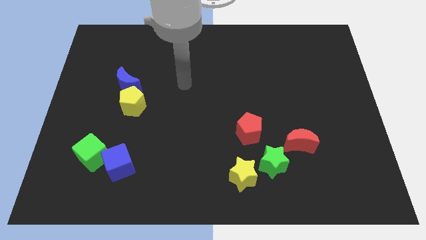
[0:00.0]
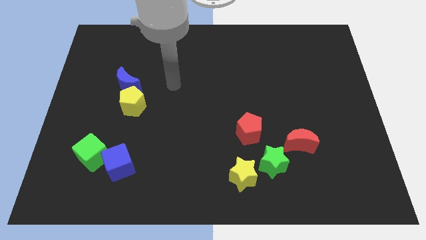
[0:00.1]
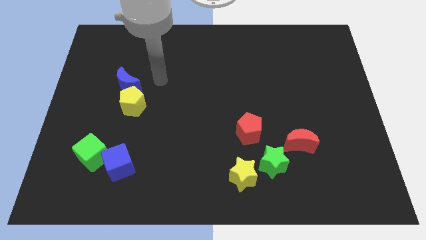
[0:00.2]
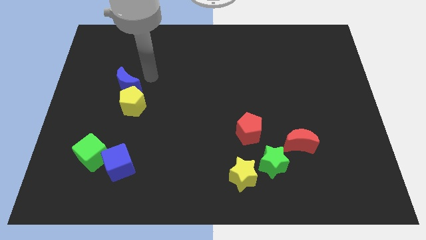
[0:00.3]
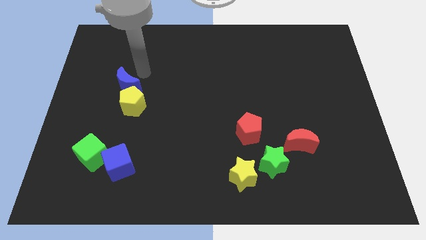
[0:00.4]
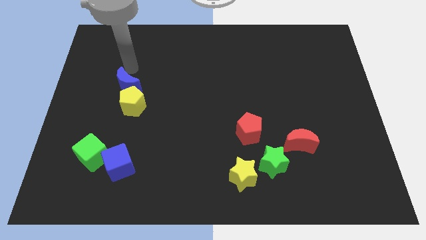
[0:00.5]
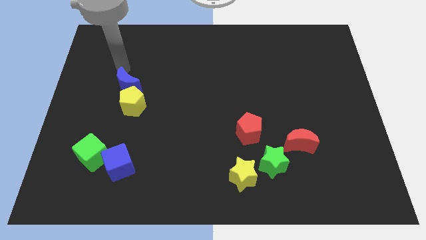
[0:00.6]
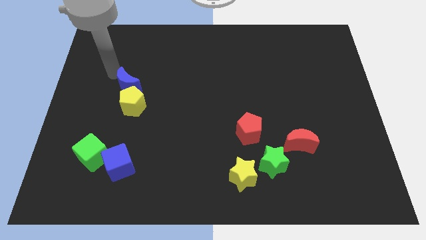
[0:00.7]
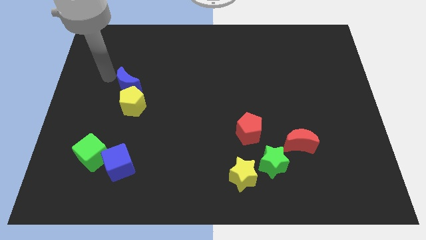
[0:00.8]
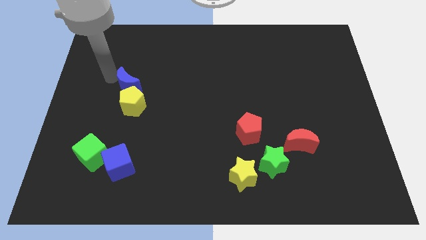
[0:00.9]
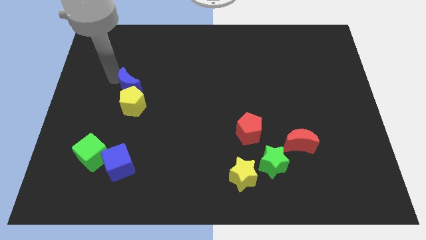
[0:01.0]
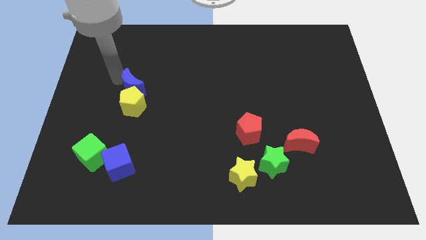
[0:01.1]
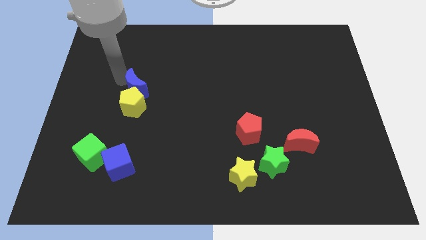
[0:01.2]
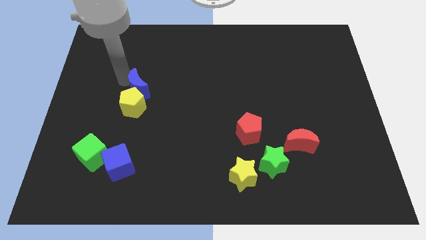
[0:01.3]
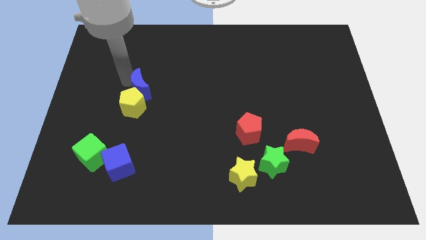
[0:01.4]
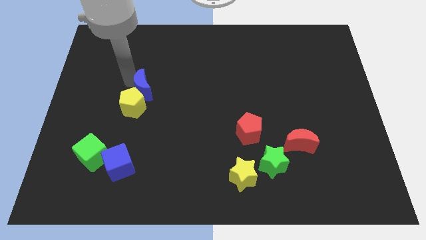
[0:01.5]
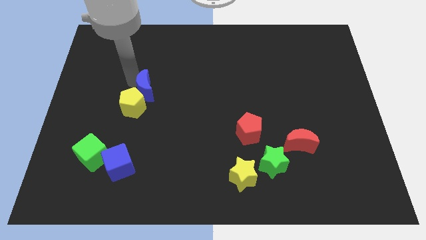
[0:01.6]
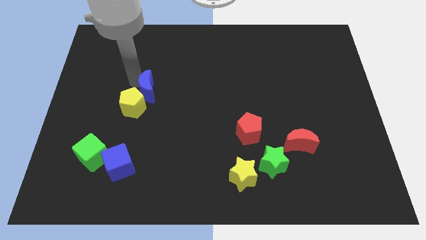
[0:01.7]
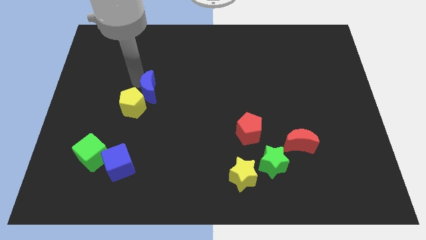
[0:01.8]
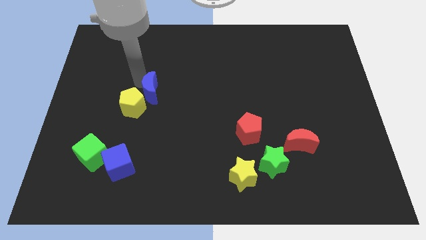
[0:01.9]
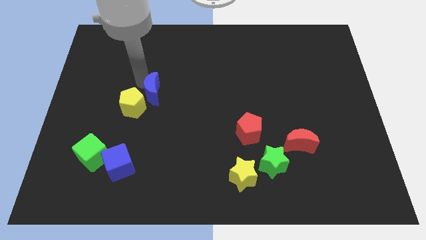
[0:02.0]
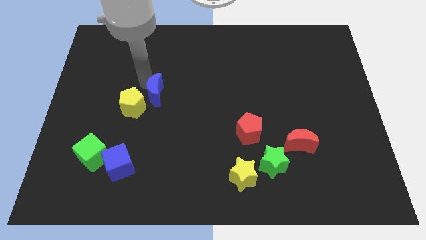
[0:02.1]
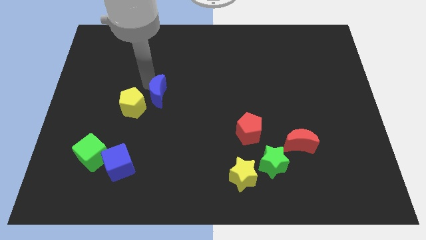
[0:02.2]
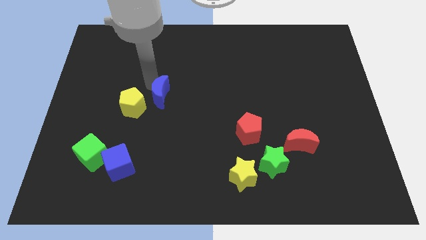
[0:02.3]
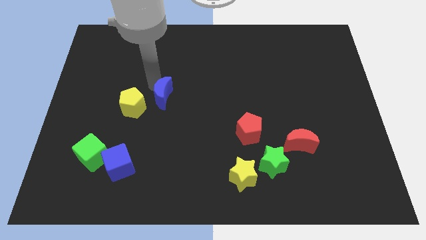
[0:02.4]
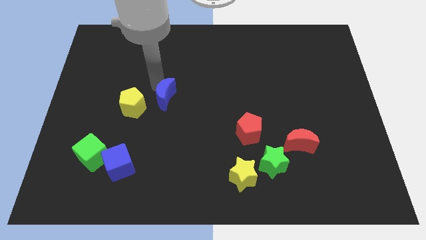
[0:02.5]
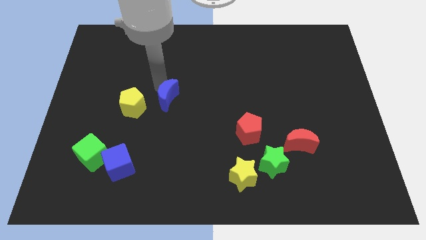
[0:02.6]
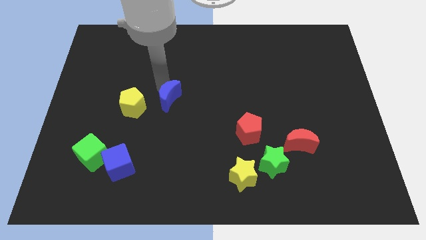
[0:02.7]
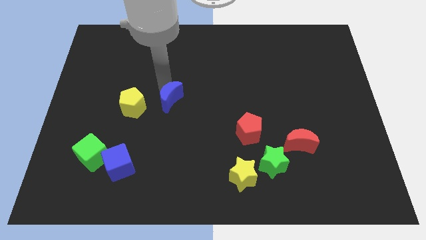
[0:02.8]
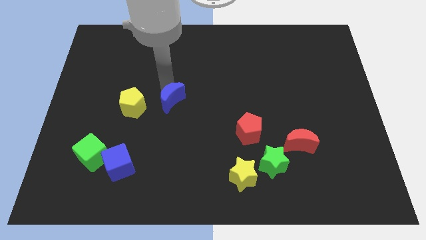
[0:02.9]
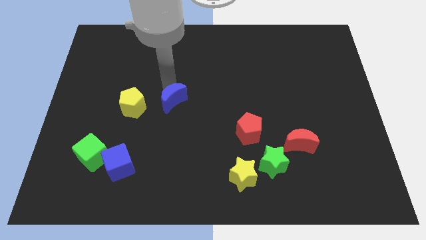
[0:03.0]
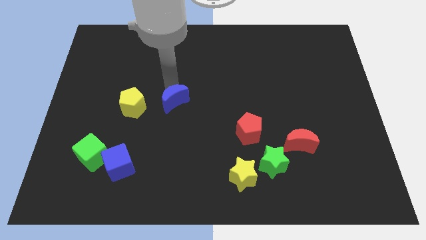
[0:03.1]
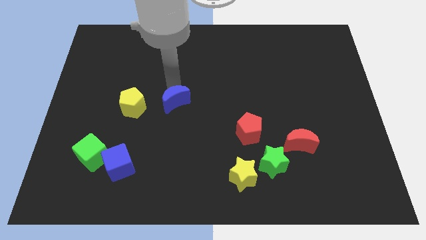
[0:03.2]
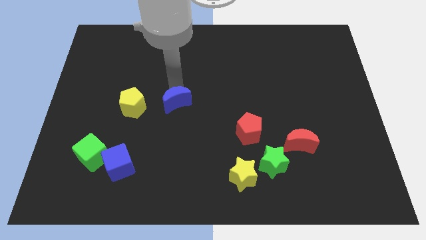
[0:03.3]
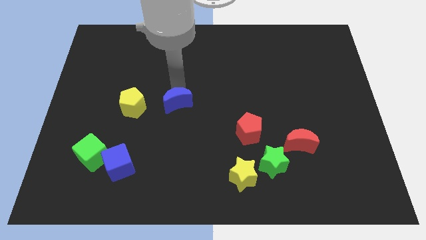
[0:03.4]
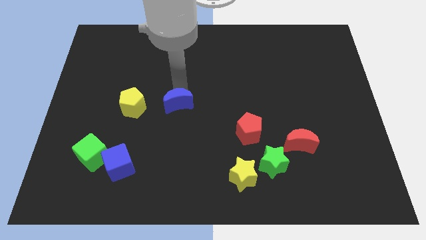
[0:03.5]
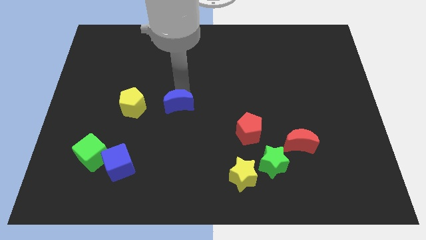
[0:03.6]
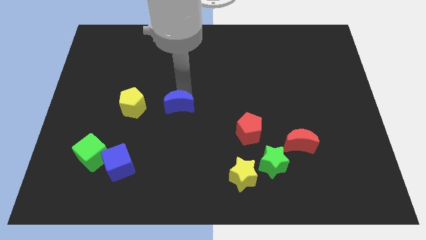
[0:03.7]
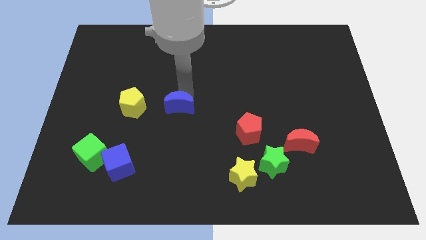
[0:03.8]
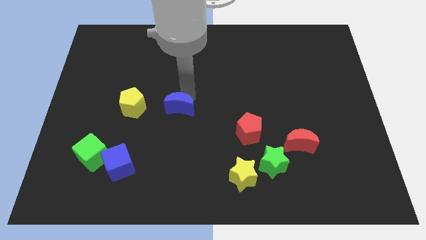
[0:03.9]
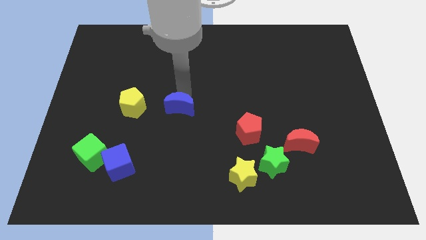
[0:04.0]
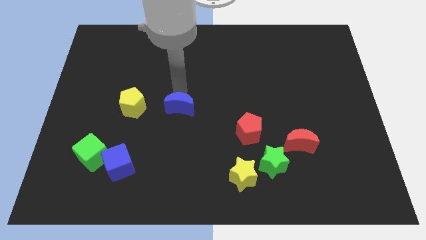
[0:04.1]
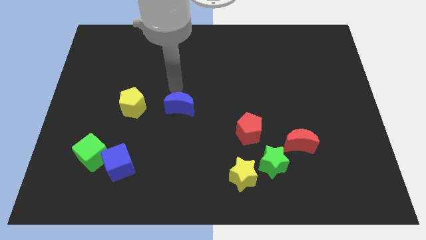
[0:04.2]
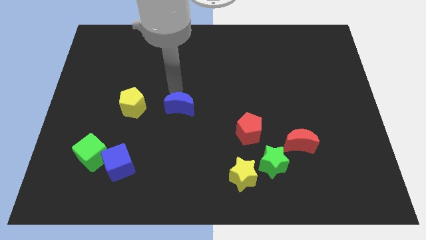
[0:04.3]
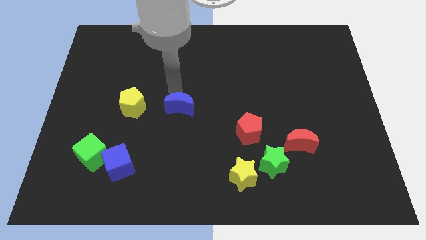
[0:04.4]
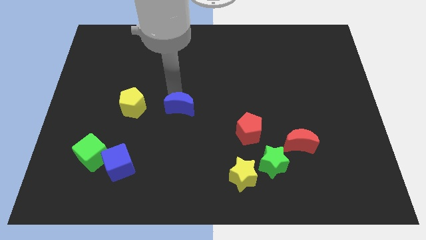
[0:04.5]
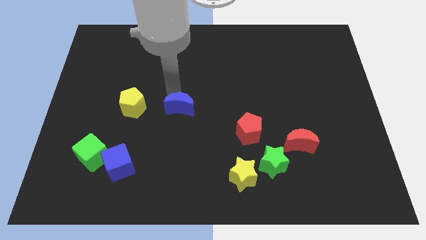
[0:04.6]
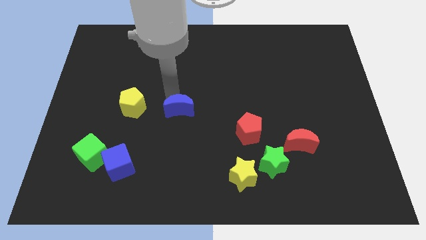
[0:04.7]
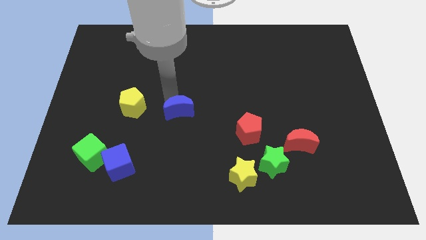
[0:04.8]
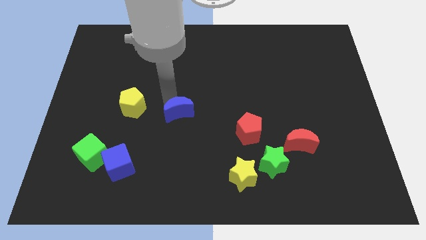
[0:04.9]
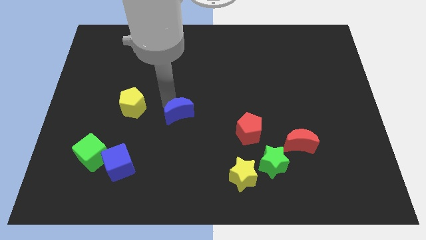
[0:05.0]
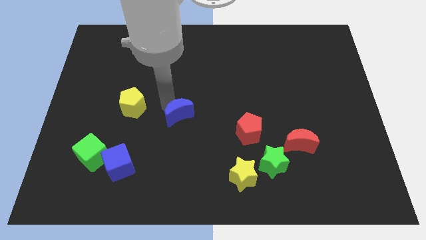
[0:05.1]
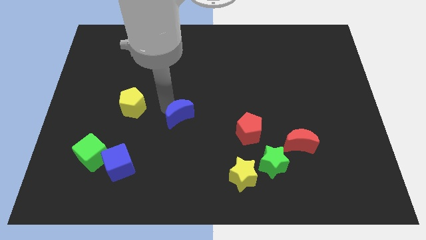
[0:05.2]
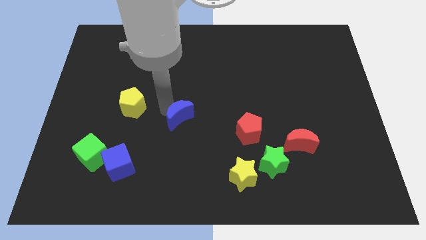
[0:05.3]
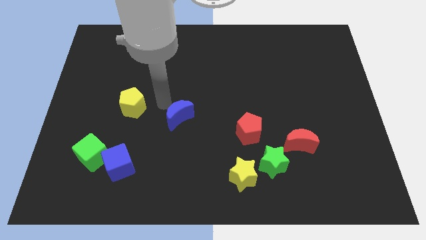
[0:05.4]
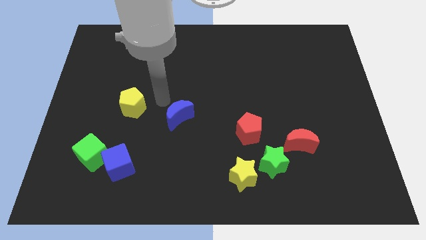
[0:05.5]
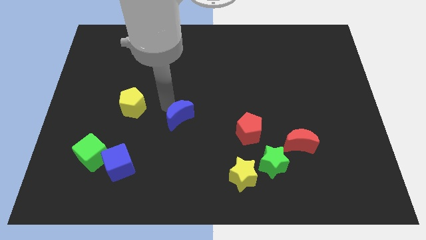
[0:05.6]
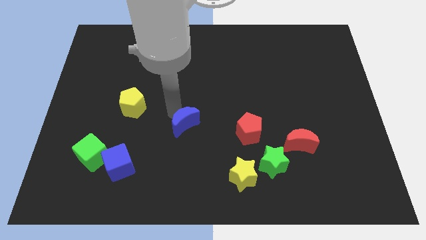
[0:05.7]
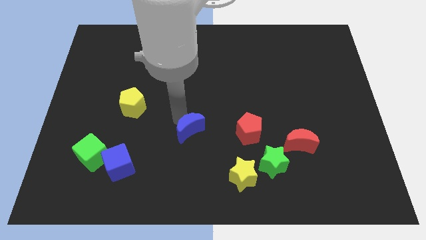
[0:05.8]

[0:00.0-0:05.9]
push the blue moon diagonally downwards and to the right

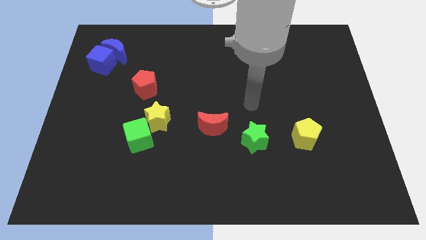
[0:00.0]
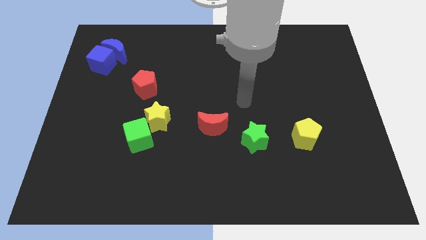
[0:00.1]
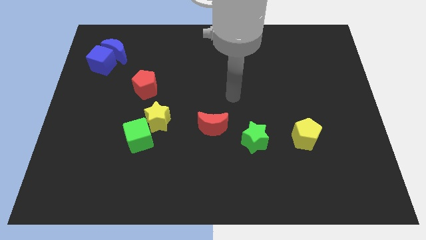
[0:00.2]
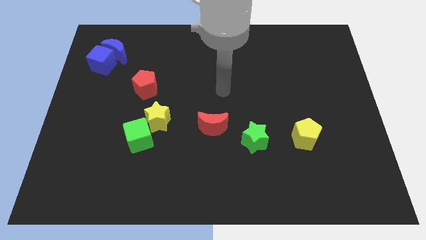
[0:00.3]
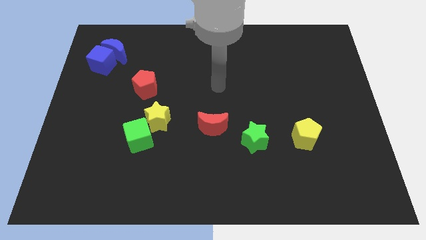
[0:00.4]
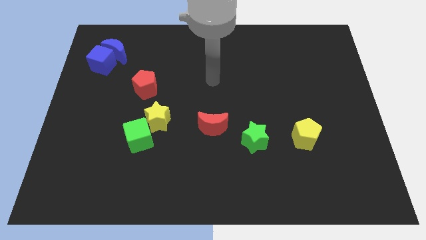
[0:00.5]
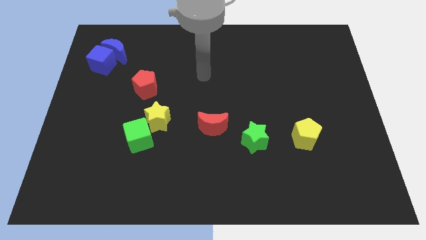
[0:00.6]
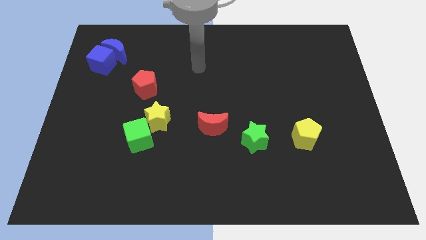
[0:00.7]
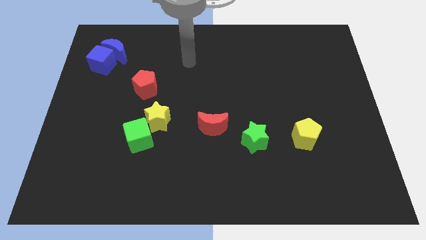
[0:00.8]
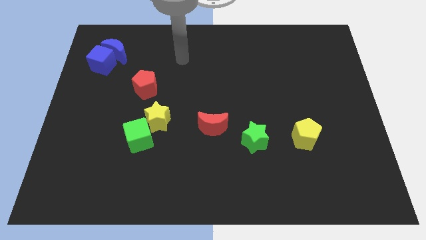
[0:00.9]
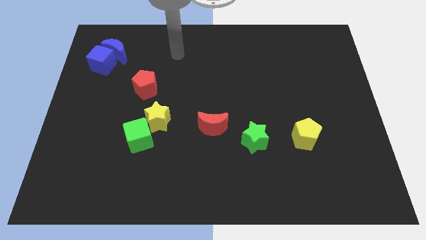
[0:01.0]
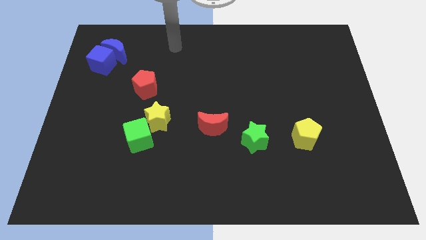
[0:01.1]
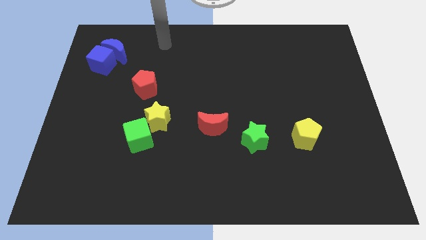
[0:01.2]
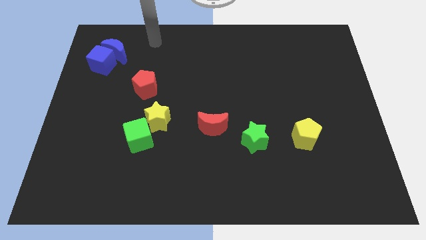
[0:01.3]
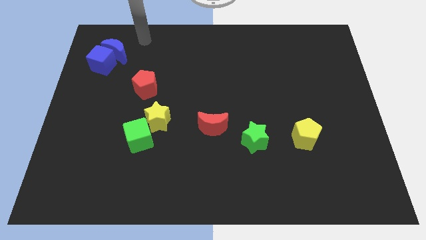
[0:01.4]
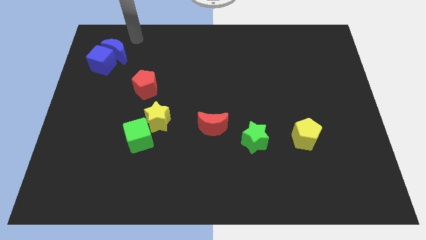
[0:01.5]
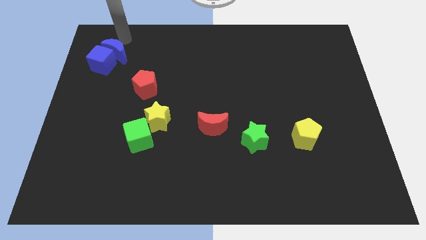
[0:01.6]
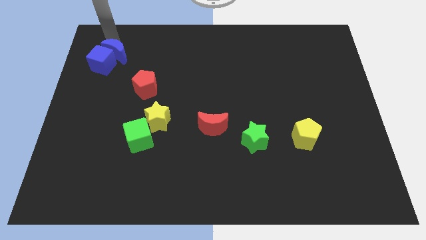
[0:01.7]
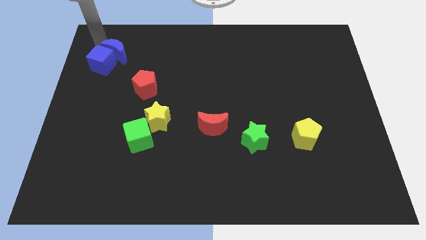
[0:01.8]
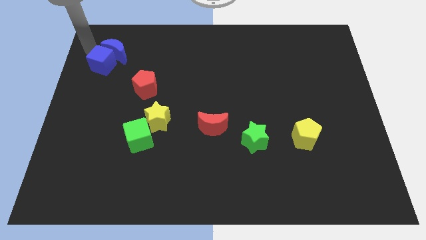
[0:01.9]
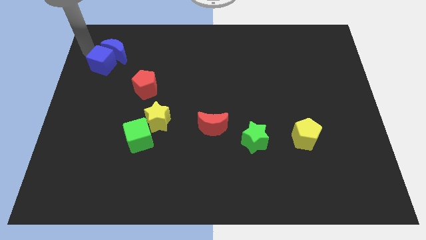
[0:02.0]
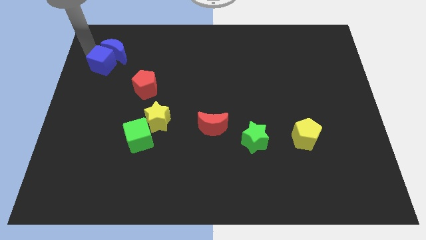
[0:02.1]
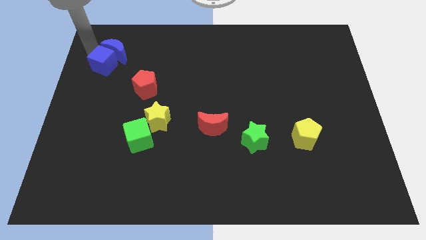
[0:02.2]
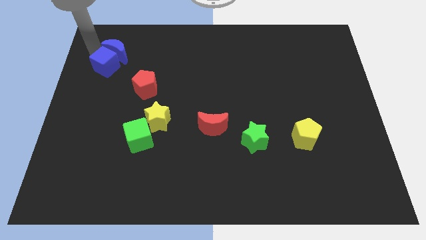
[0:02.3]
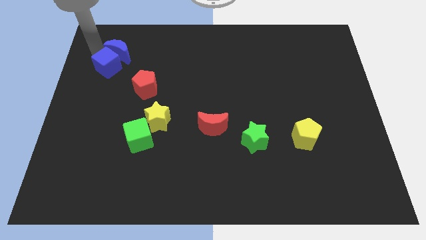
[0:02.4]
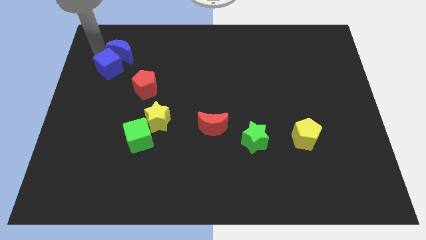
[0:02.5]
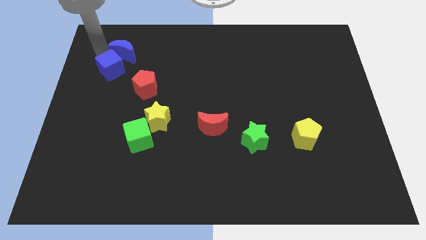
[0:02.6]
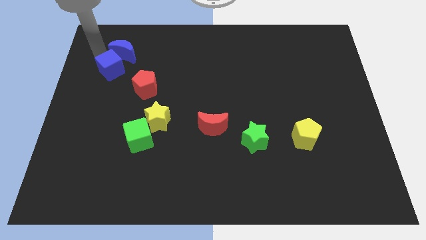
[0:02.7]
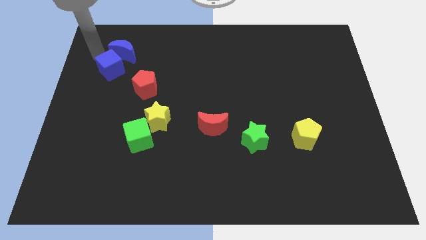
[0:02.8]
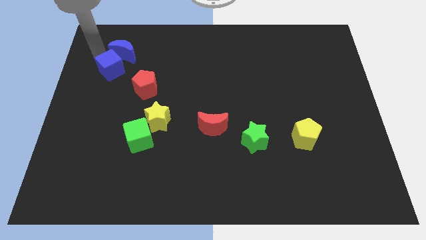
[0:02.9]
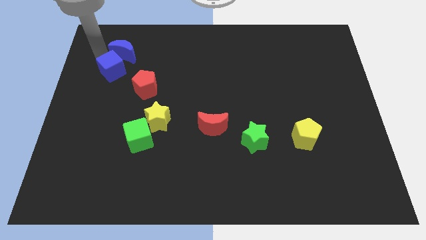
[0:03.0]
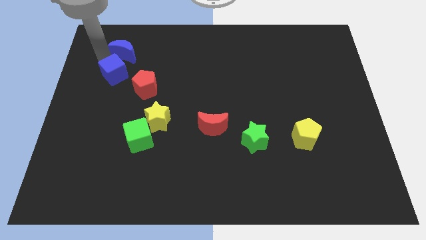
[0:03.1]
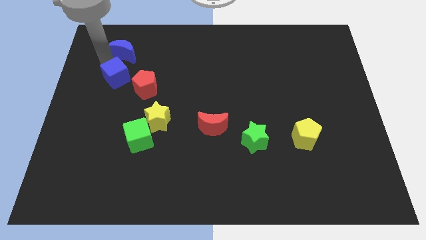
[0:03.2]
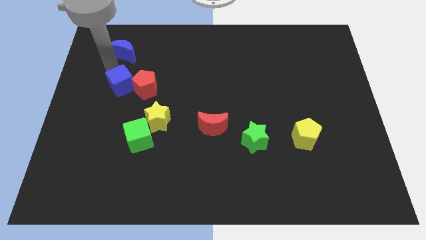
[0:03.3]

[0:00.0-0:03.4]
push the blue cube a little bit downwards and then to the right
